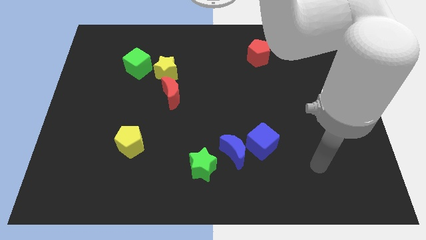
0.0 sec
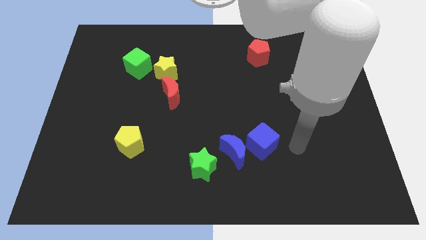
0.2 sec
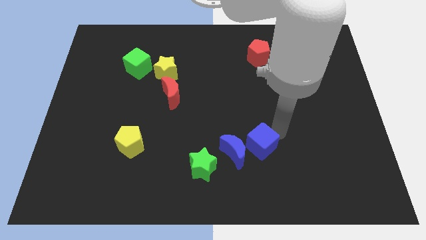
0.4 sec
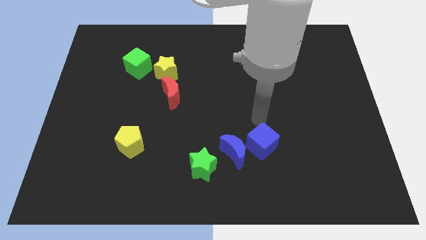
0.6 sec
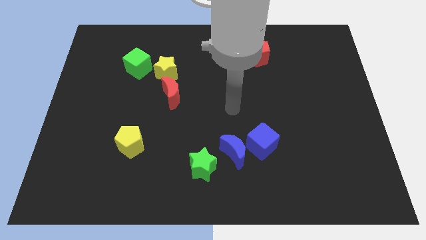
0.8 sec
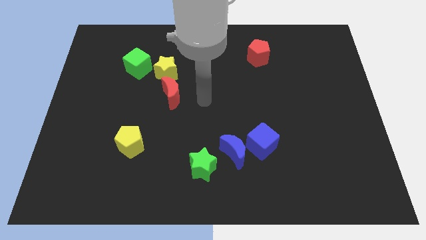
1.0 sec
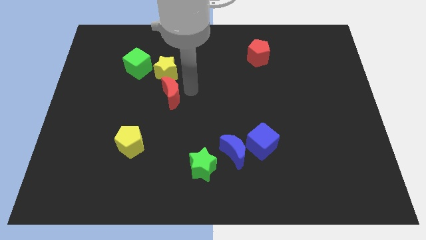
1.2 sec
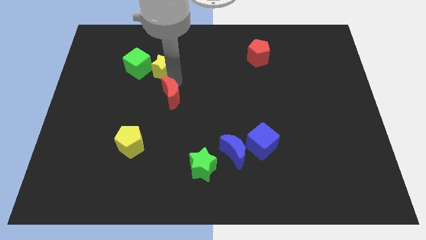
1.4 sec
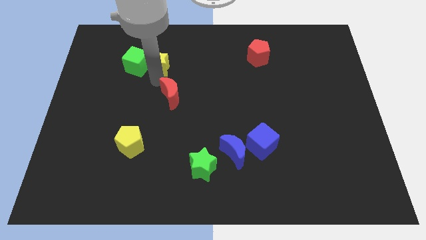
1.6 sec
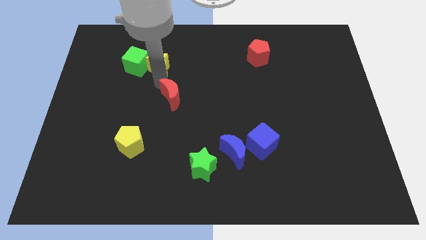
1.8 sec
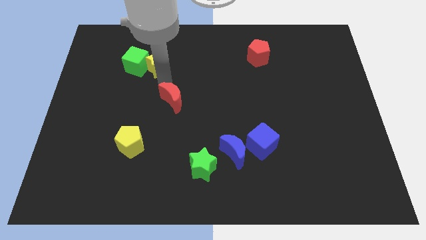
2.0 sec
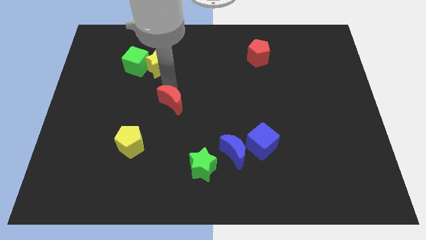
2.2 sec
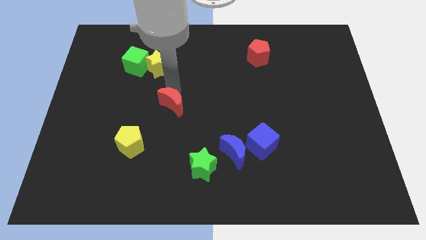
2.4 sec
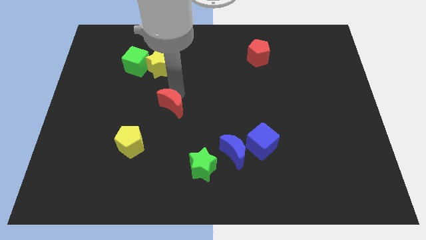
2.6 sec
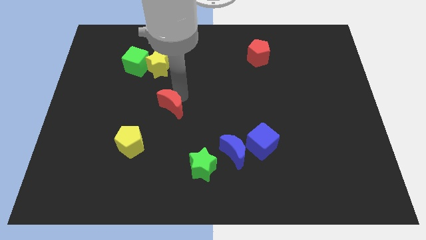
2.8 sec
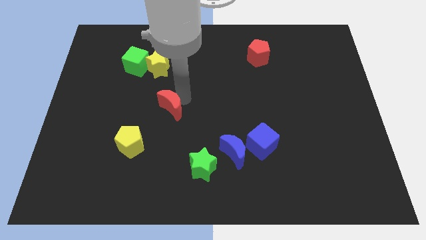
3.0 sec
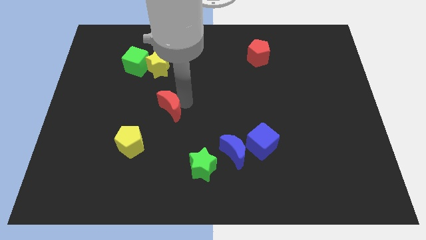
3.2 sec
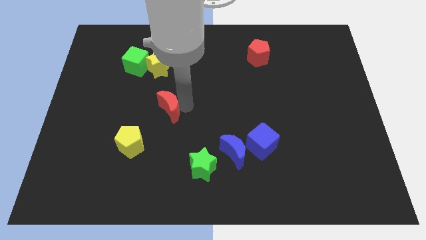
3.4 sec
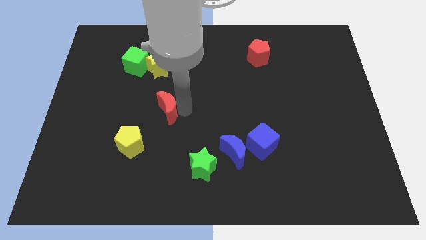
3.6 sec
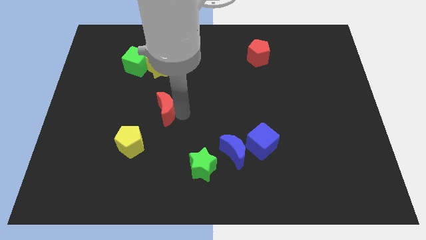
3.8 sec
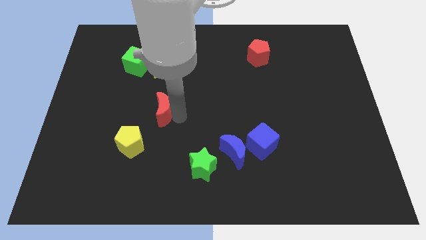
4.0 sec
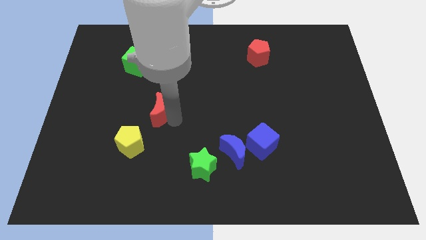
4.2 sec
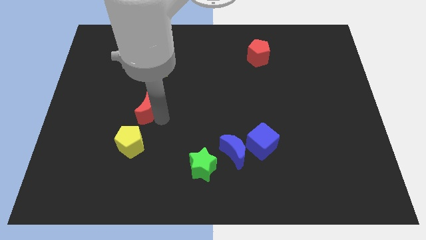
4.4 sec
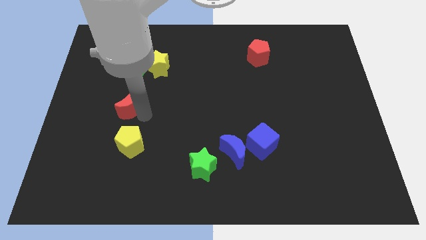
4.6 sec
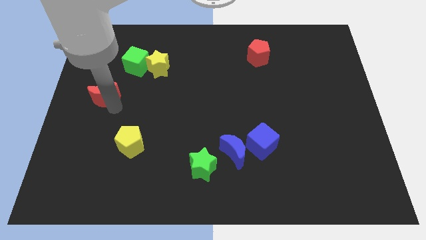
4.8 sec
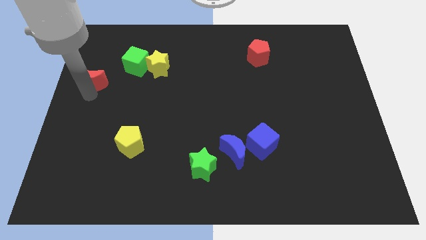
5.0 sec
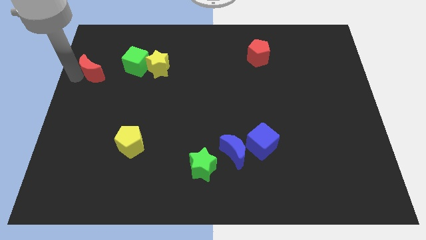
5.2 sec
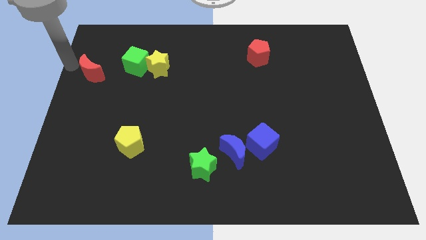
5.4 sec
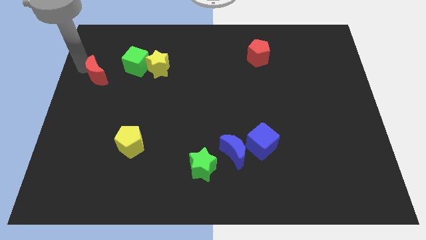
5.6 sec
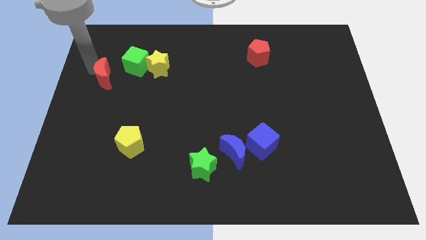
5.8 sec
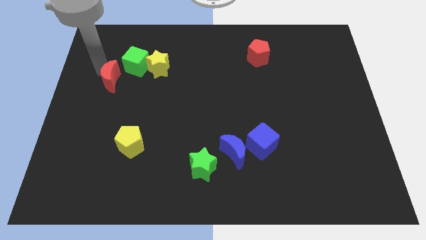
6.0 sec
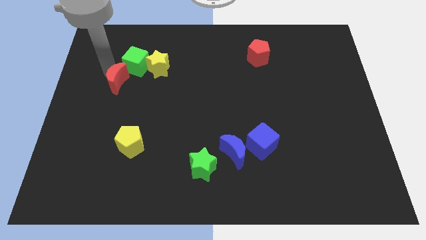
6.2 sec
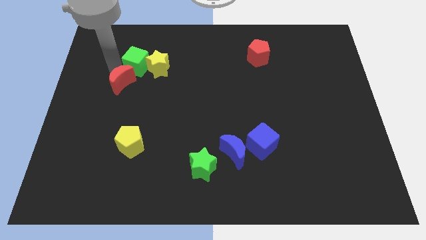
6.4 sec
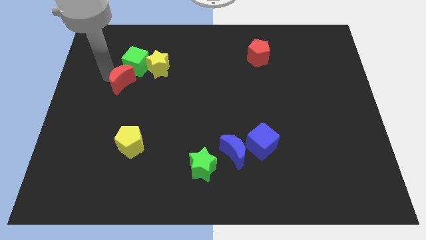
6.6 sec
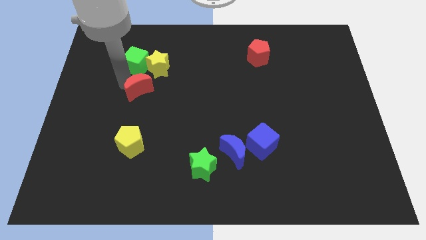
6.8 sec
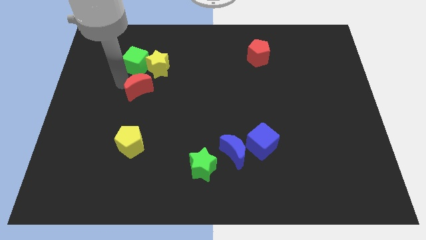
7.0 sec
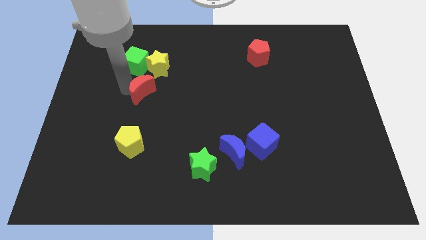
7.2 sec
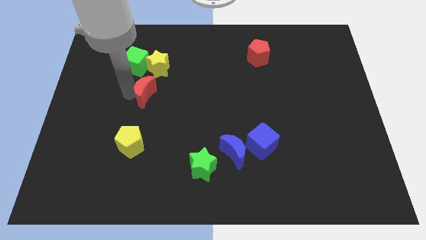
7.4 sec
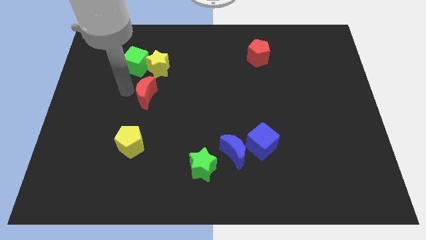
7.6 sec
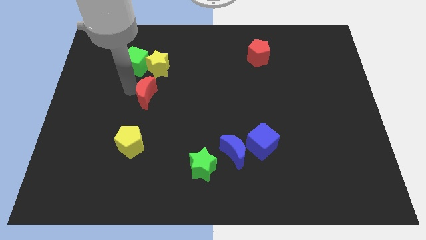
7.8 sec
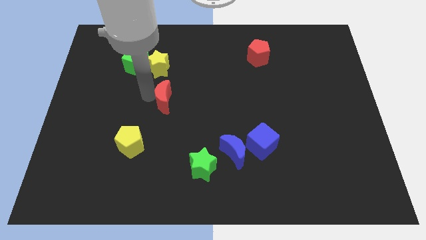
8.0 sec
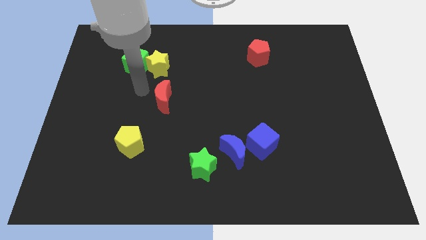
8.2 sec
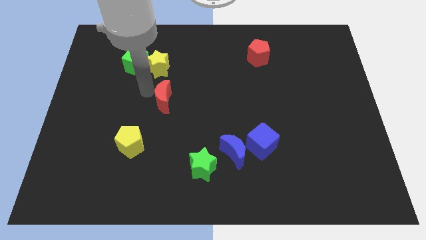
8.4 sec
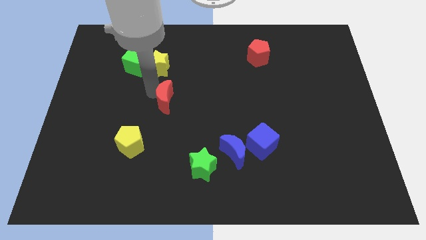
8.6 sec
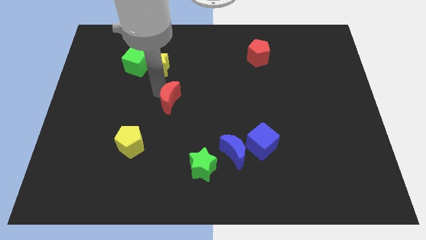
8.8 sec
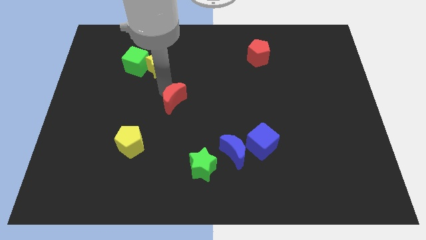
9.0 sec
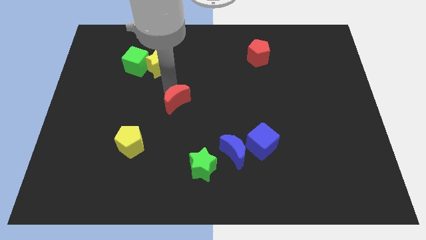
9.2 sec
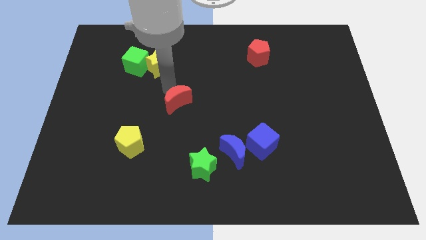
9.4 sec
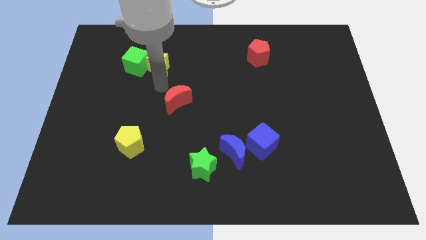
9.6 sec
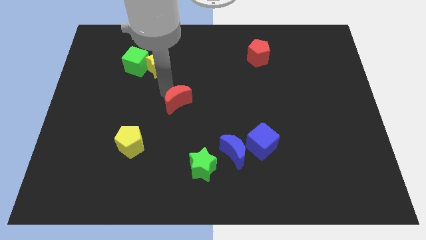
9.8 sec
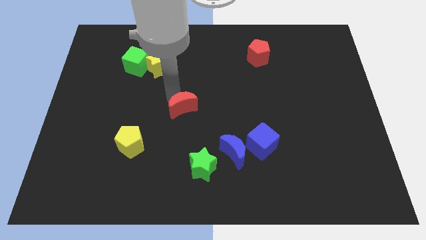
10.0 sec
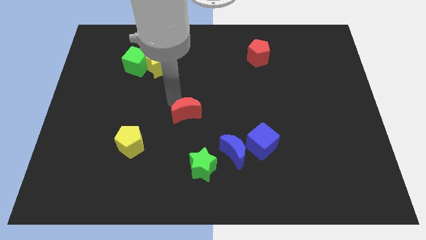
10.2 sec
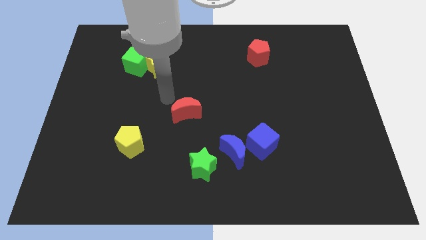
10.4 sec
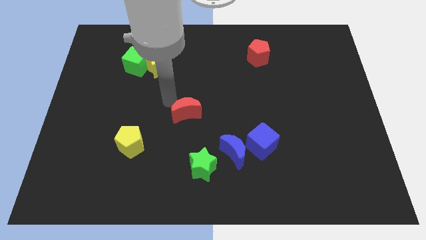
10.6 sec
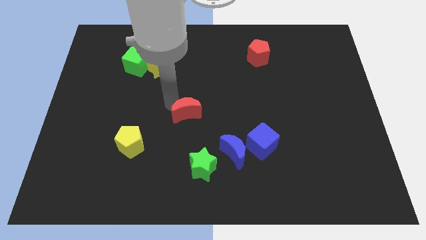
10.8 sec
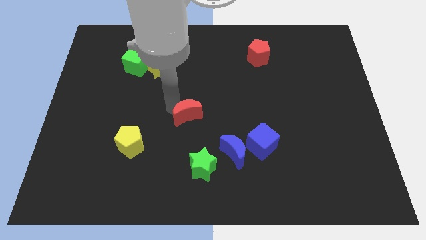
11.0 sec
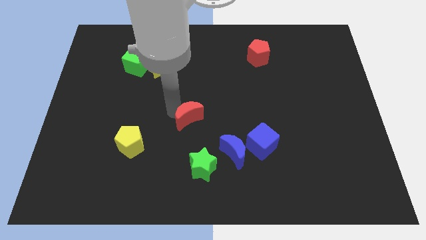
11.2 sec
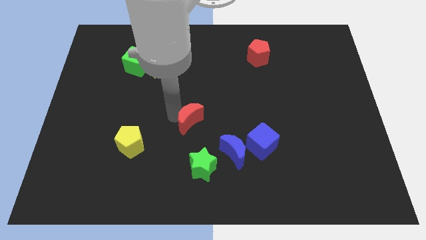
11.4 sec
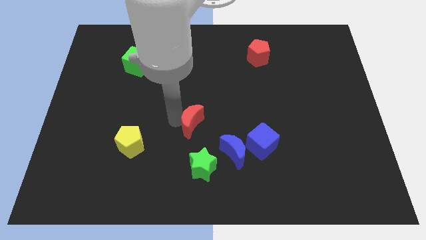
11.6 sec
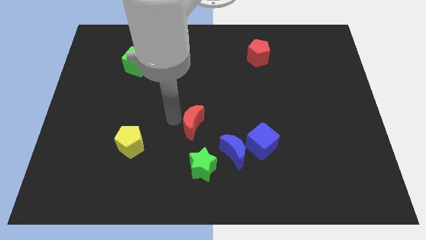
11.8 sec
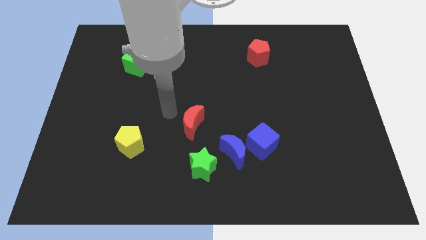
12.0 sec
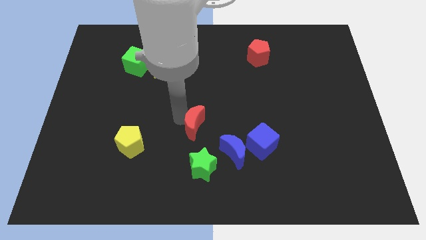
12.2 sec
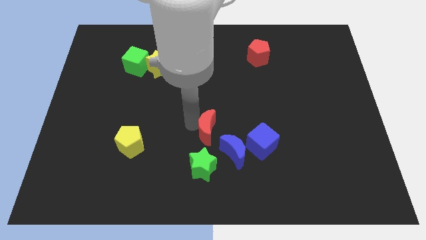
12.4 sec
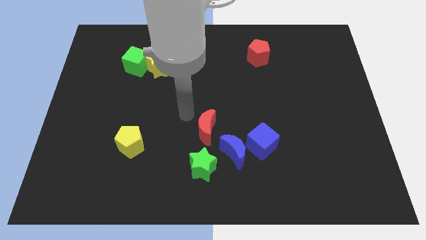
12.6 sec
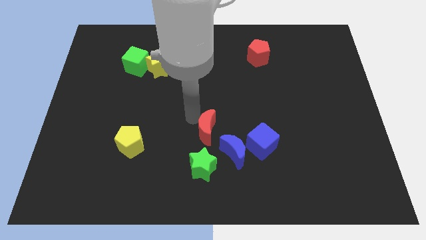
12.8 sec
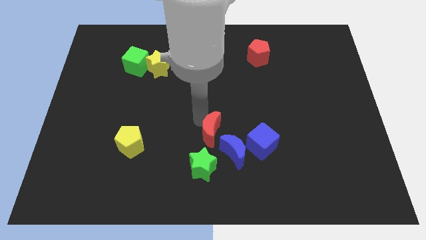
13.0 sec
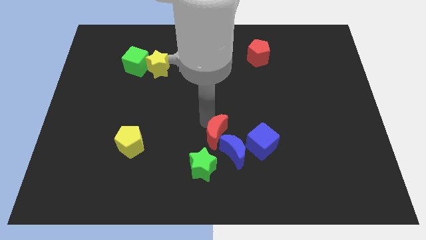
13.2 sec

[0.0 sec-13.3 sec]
push the red moon to the blue moon
